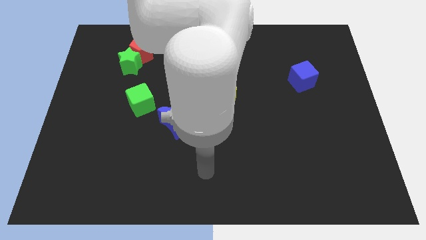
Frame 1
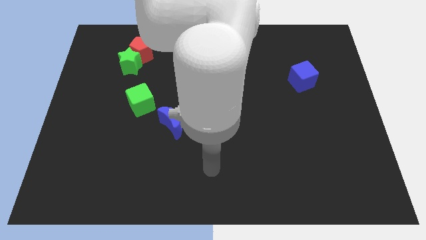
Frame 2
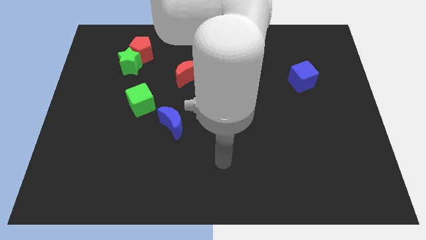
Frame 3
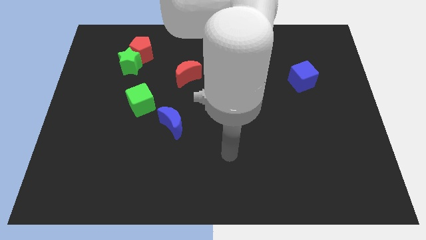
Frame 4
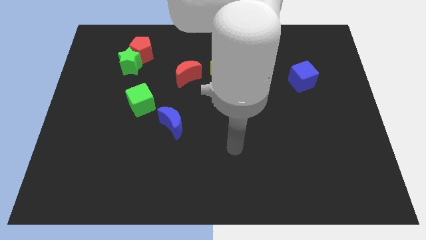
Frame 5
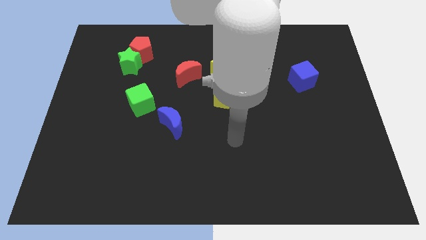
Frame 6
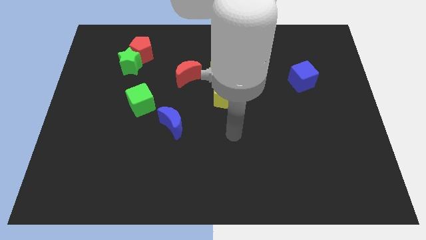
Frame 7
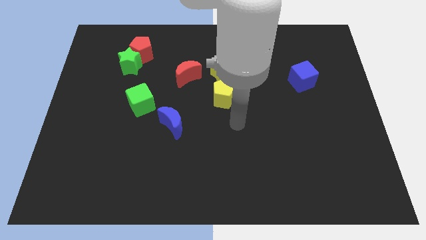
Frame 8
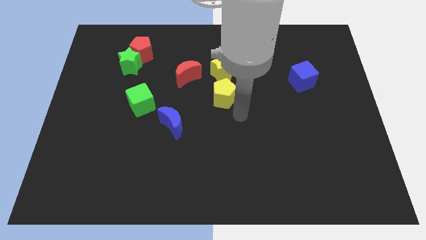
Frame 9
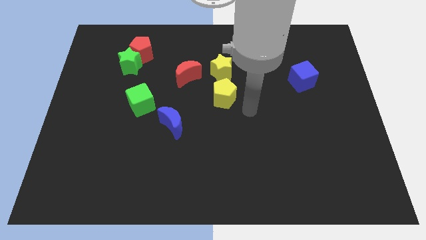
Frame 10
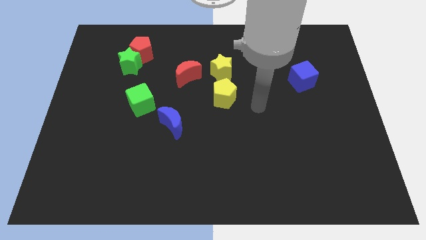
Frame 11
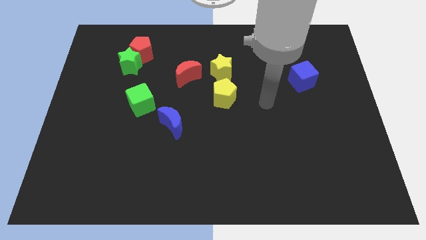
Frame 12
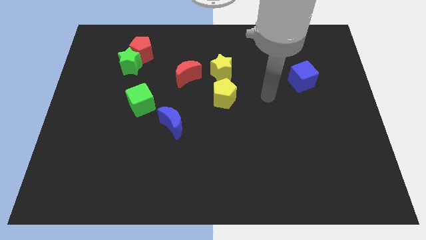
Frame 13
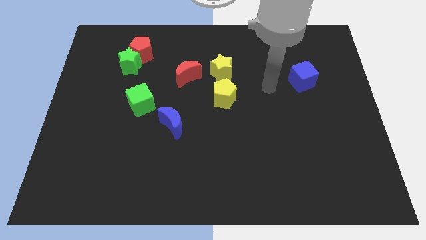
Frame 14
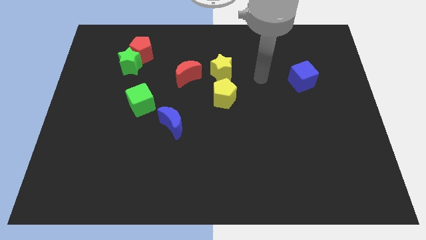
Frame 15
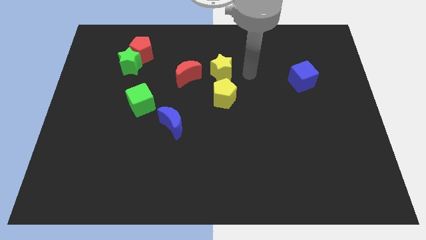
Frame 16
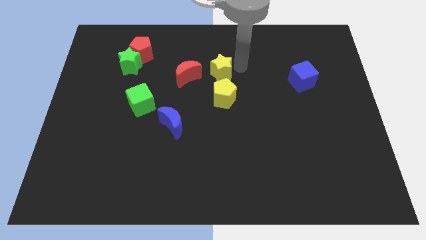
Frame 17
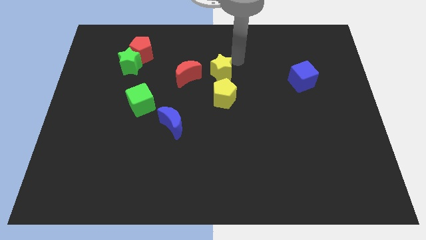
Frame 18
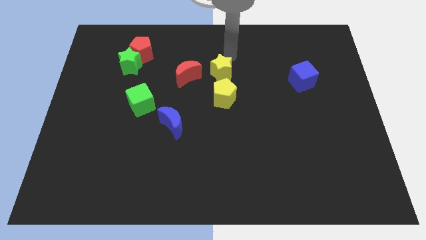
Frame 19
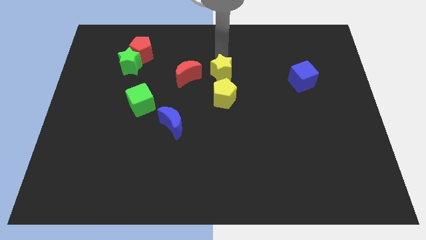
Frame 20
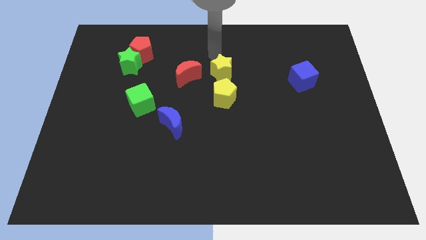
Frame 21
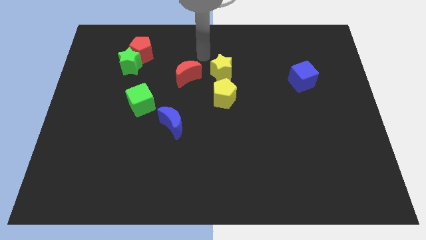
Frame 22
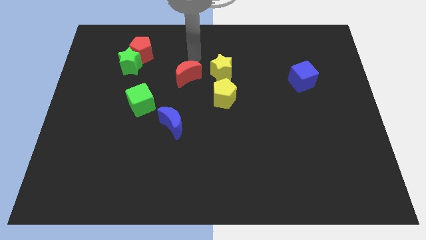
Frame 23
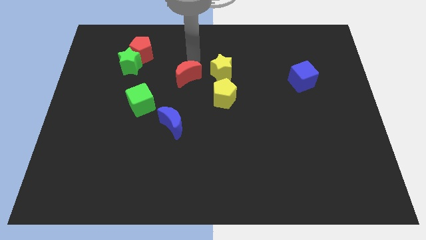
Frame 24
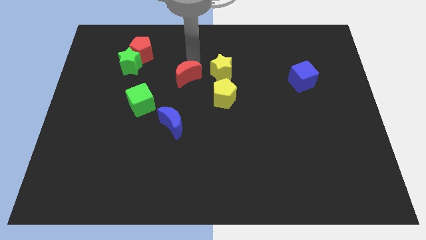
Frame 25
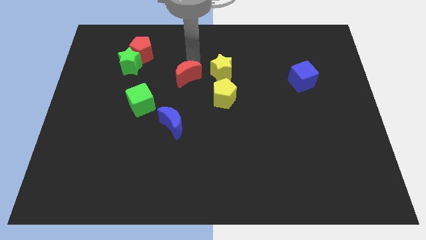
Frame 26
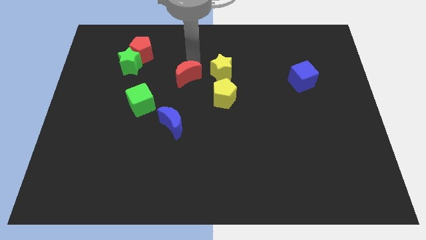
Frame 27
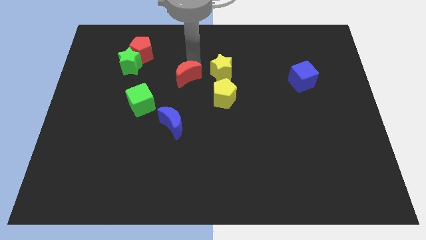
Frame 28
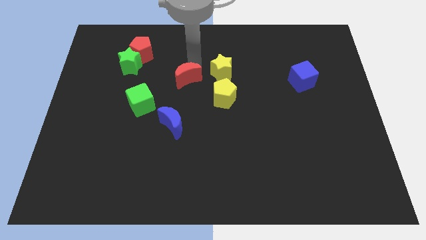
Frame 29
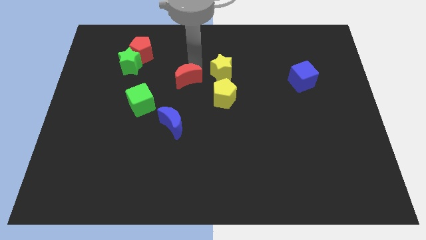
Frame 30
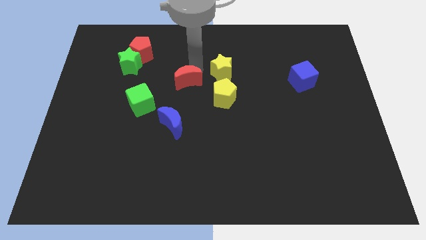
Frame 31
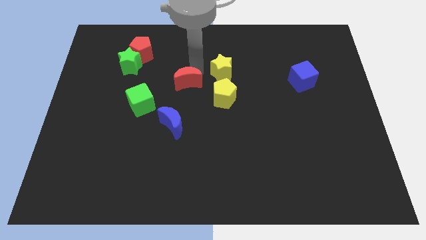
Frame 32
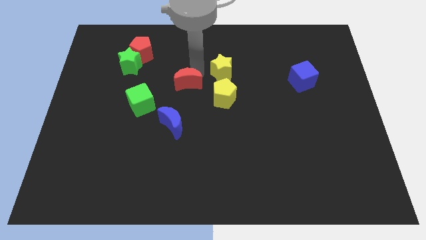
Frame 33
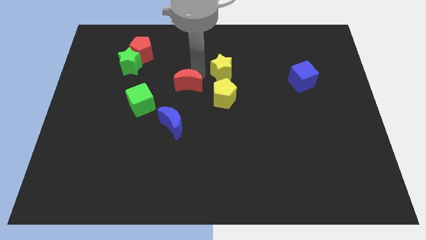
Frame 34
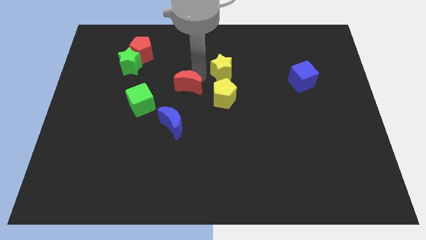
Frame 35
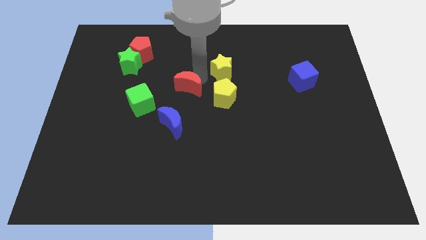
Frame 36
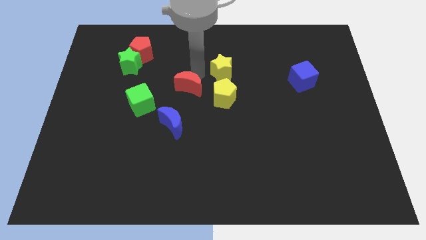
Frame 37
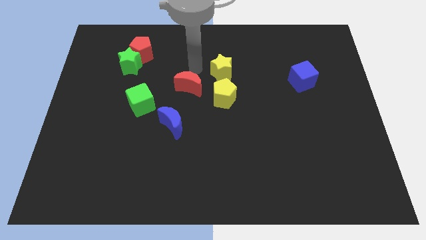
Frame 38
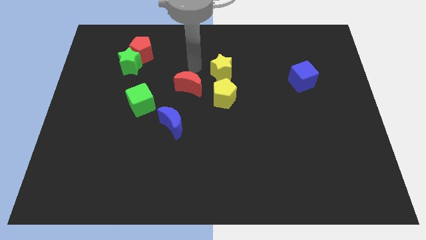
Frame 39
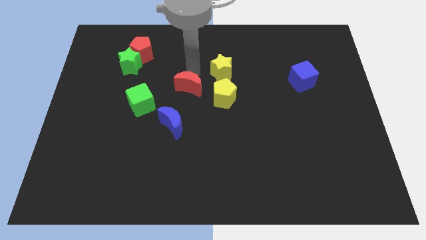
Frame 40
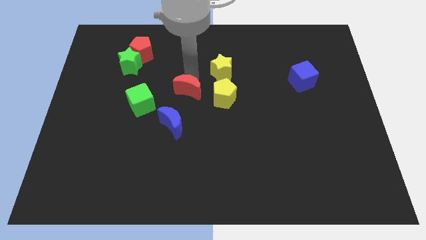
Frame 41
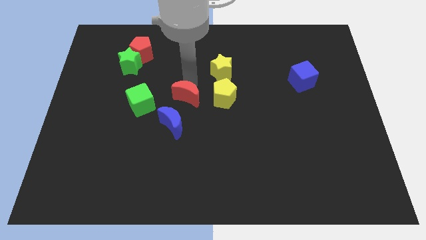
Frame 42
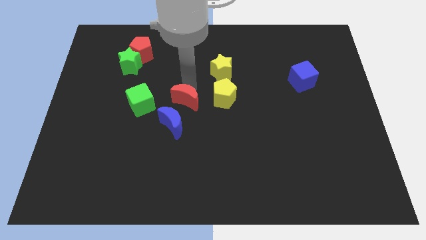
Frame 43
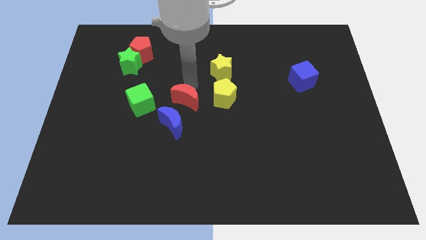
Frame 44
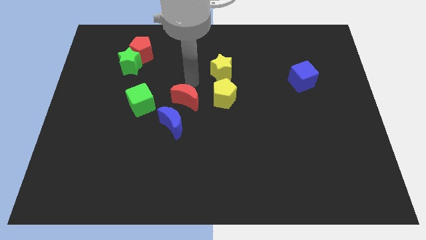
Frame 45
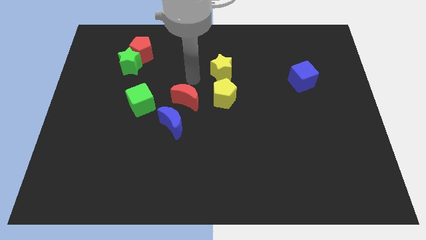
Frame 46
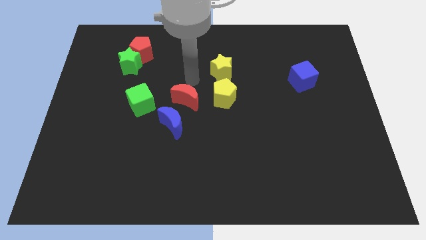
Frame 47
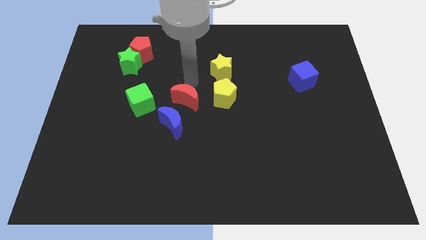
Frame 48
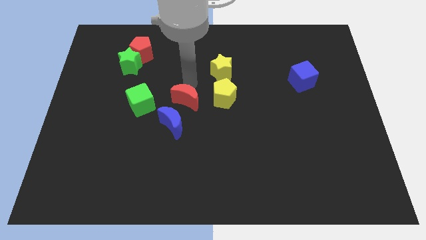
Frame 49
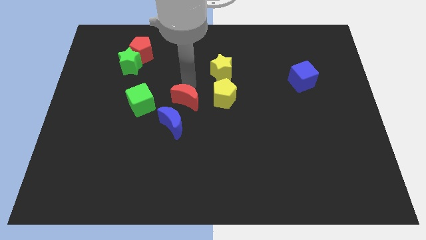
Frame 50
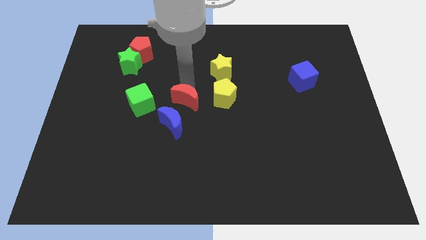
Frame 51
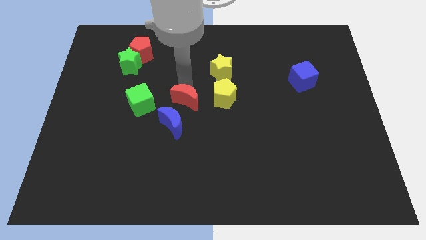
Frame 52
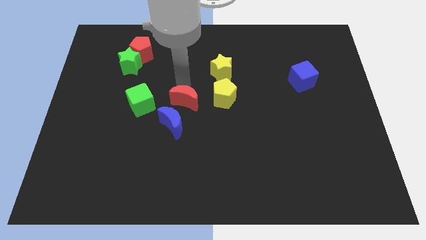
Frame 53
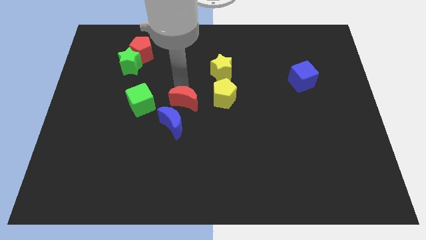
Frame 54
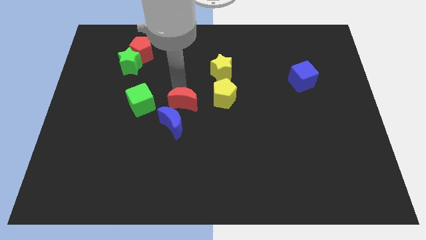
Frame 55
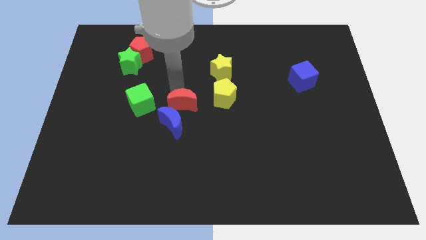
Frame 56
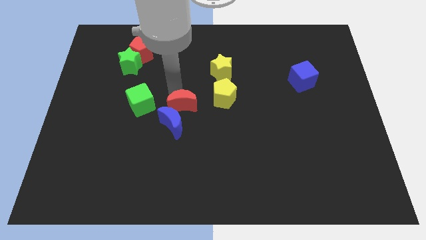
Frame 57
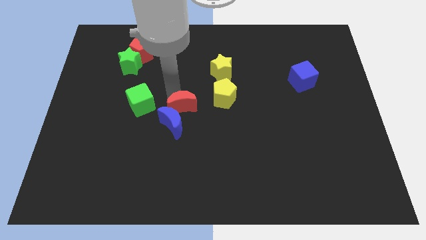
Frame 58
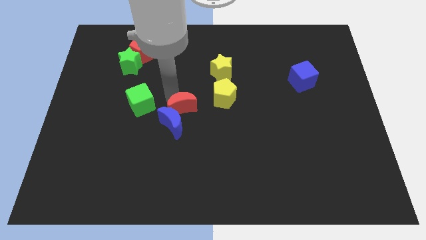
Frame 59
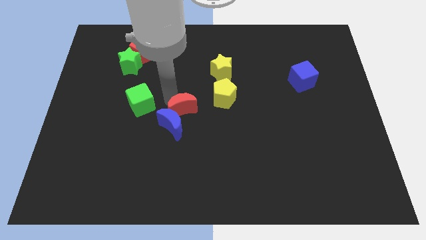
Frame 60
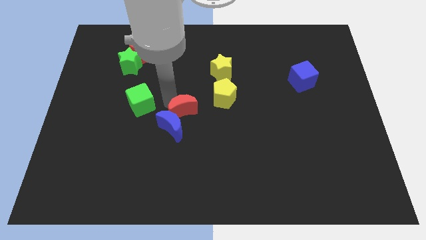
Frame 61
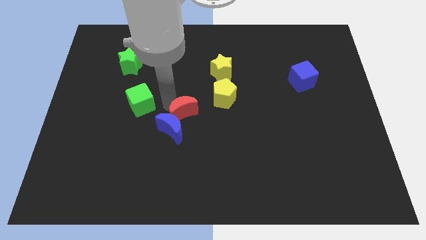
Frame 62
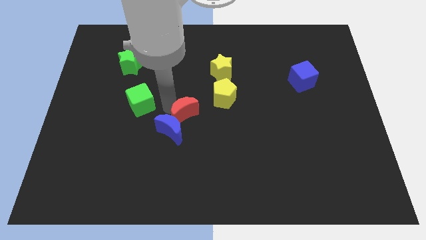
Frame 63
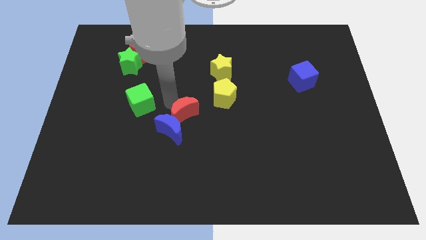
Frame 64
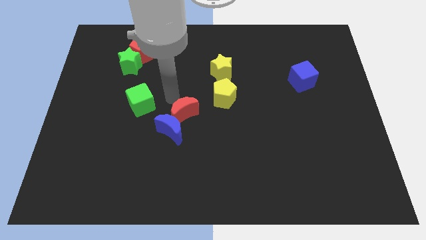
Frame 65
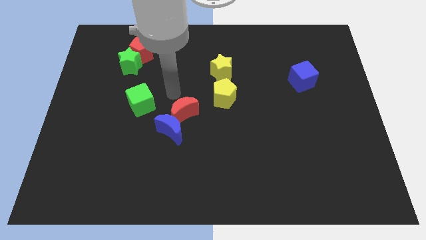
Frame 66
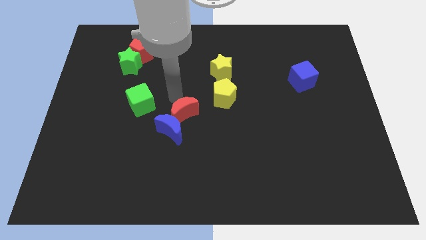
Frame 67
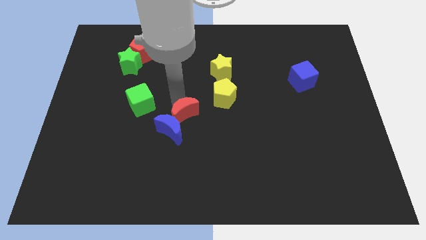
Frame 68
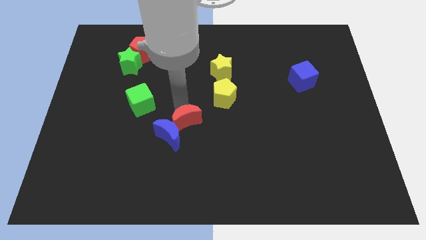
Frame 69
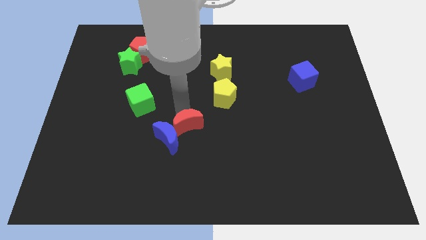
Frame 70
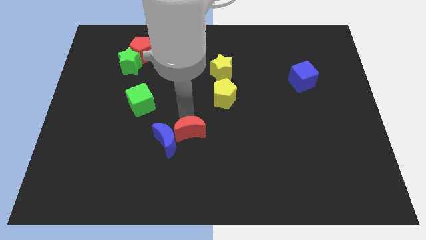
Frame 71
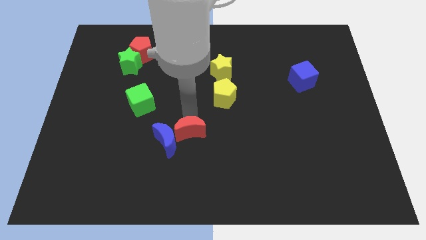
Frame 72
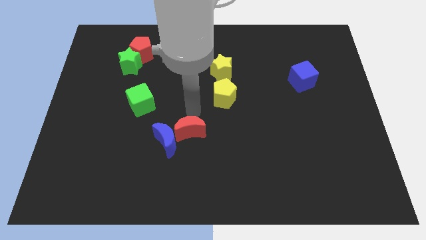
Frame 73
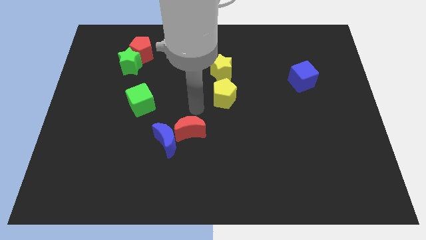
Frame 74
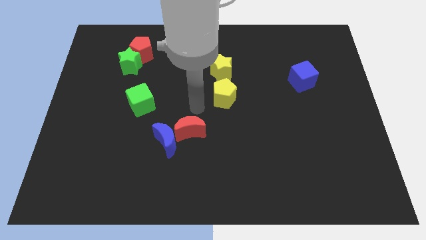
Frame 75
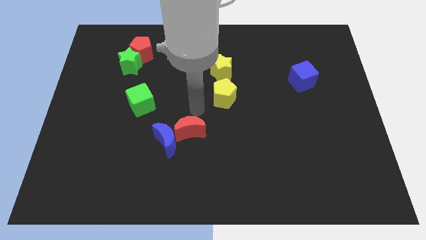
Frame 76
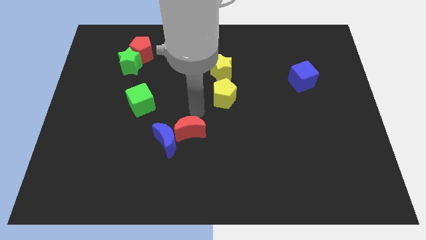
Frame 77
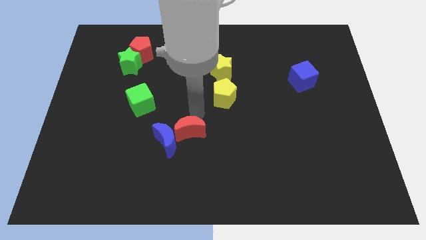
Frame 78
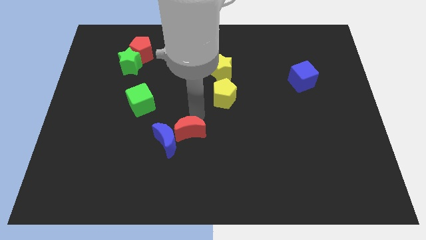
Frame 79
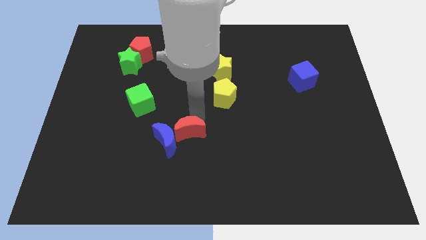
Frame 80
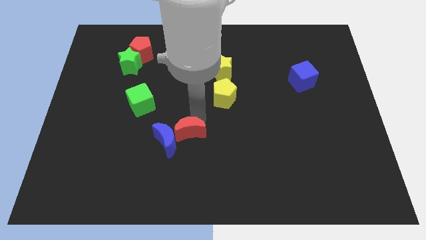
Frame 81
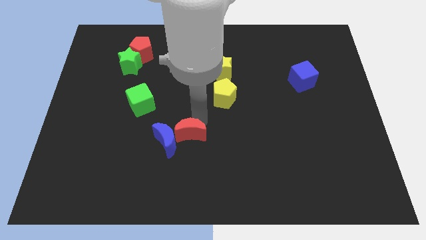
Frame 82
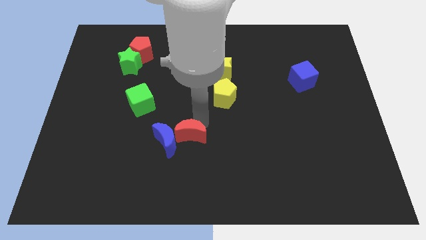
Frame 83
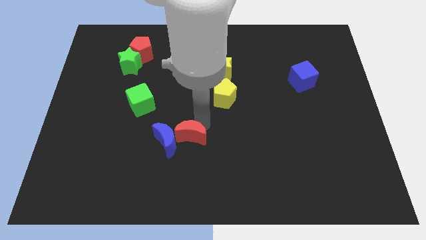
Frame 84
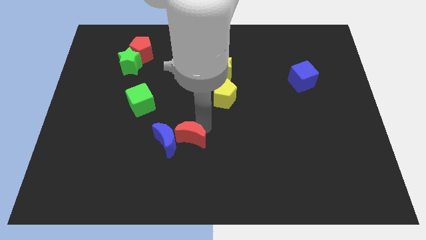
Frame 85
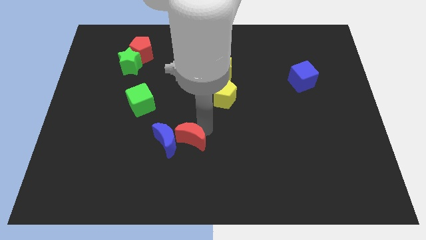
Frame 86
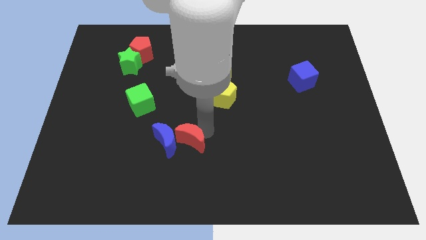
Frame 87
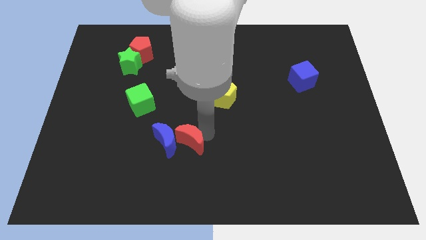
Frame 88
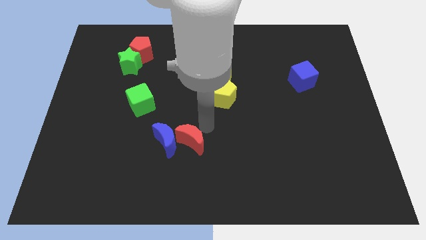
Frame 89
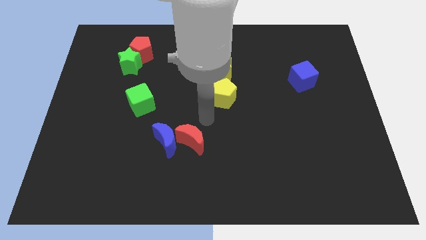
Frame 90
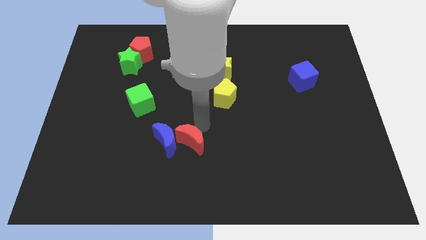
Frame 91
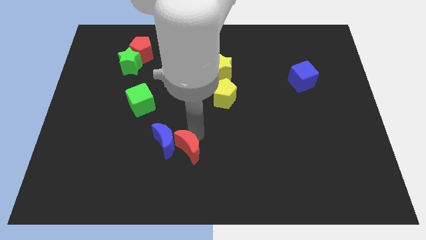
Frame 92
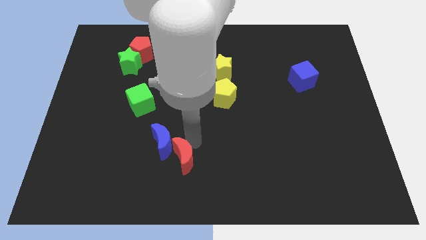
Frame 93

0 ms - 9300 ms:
push the red moon to the bottom of the blue moon
